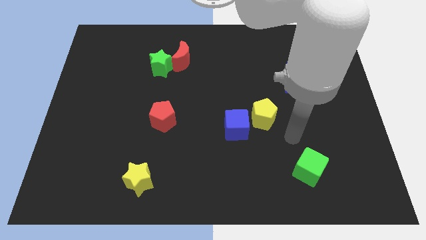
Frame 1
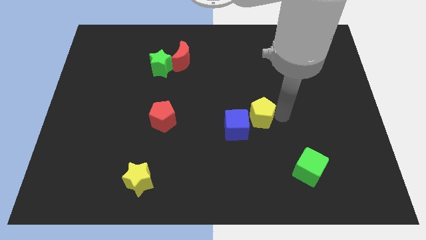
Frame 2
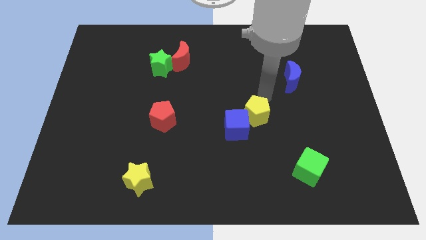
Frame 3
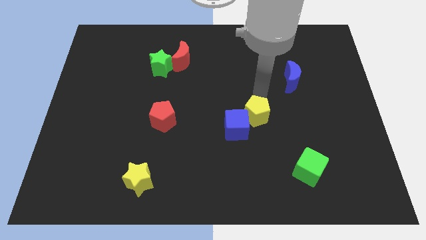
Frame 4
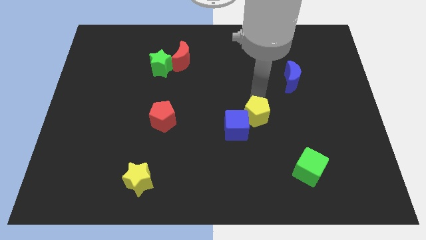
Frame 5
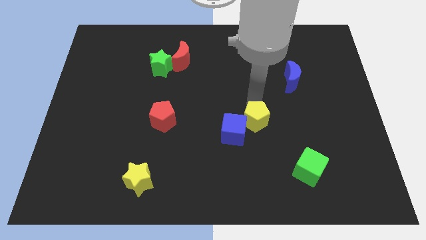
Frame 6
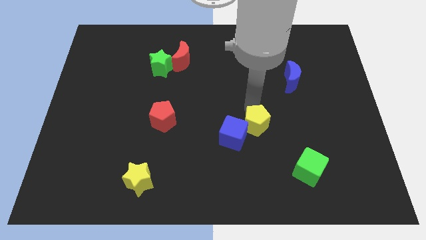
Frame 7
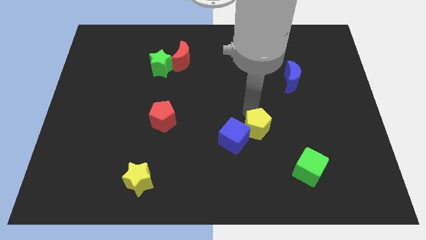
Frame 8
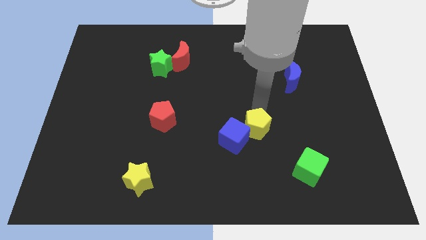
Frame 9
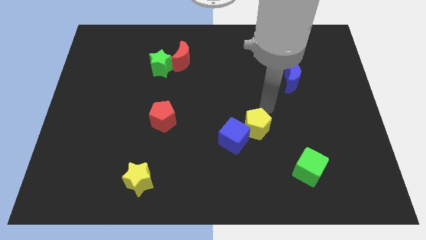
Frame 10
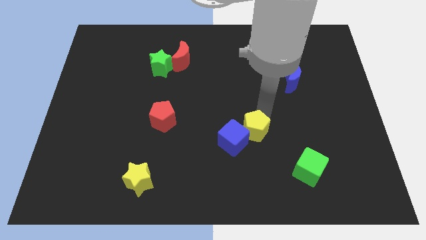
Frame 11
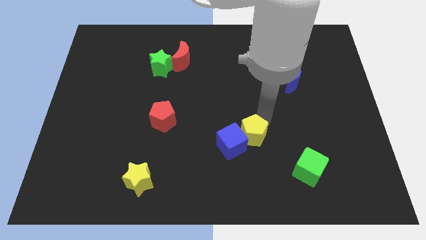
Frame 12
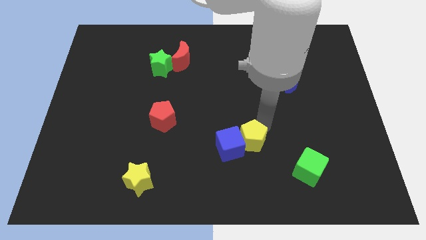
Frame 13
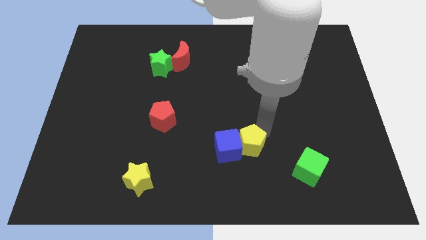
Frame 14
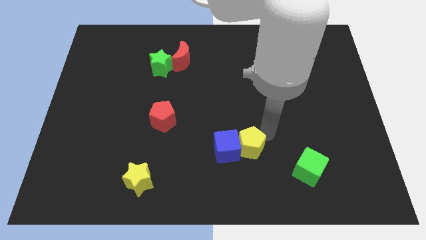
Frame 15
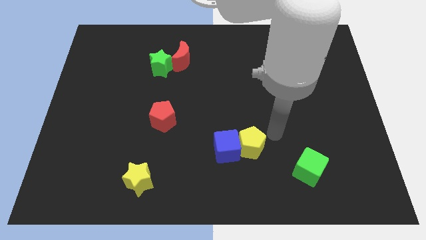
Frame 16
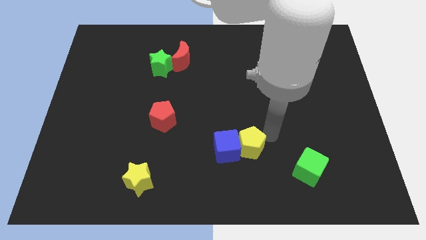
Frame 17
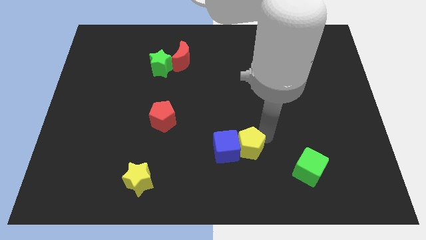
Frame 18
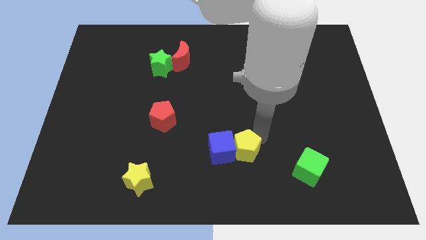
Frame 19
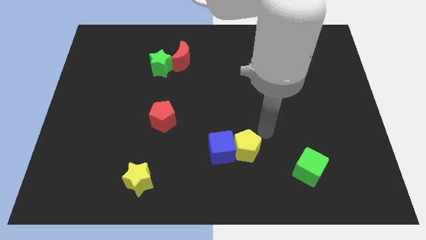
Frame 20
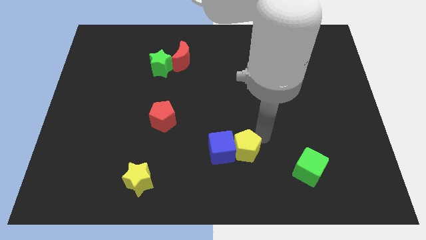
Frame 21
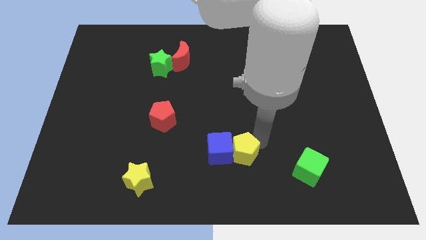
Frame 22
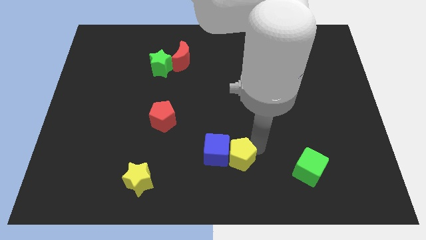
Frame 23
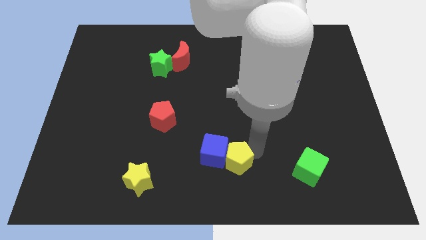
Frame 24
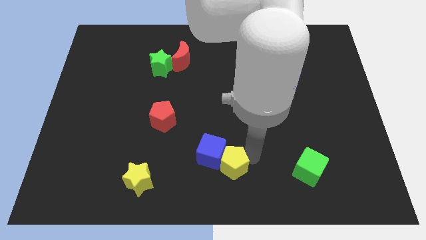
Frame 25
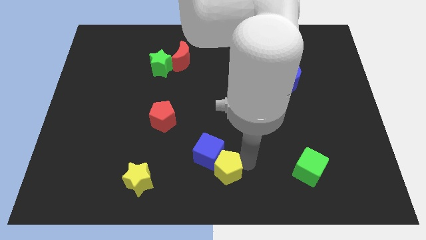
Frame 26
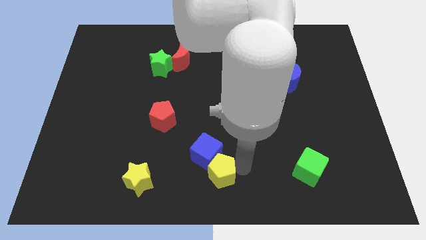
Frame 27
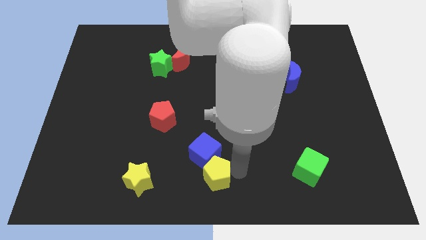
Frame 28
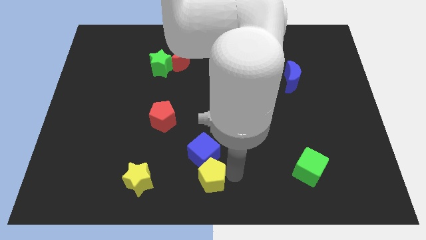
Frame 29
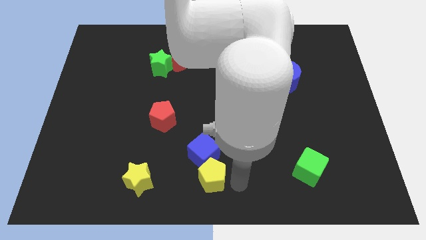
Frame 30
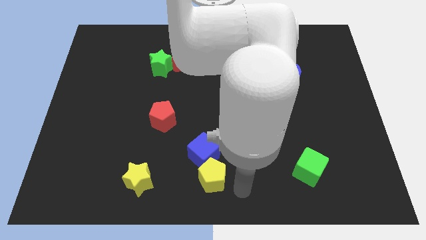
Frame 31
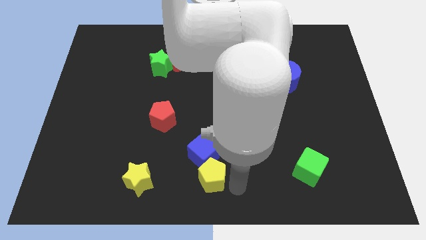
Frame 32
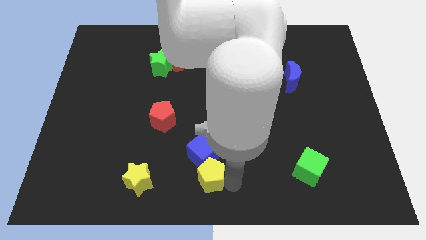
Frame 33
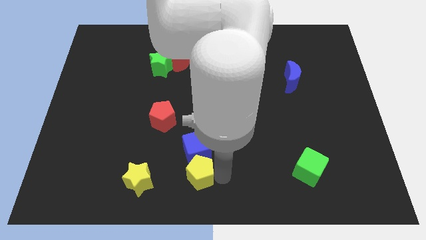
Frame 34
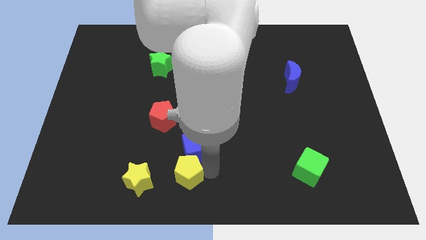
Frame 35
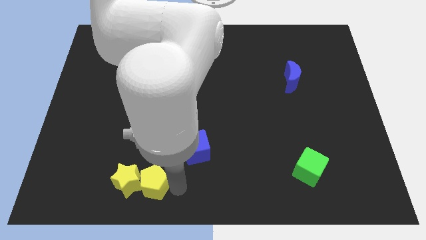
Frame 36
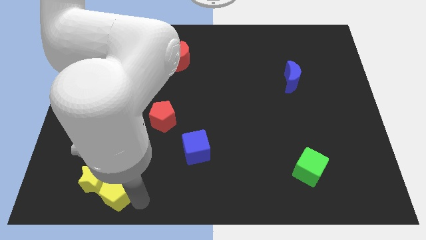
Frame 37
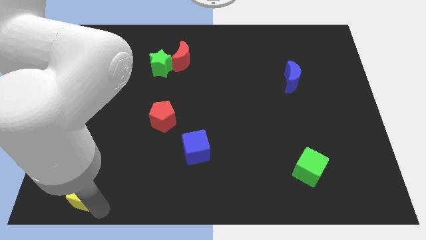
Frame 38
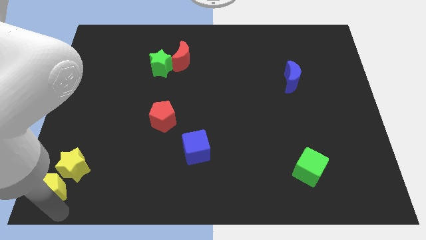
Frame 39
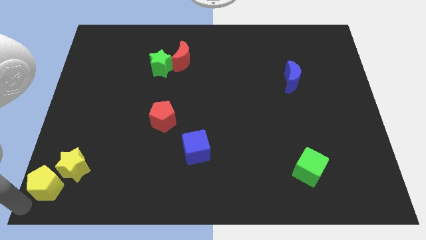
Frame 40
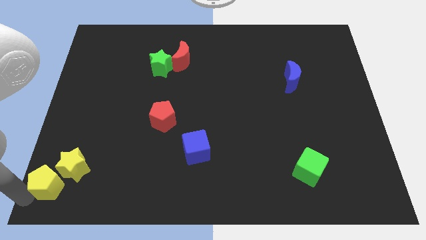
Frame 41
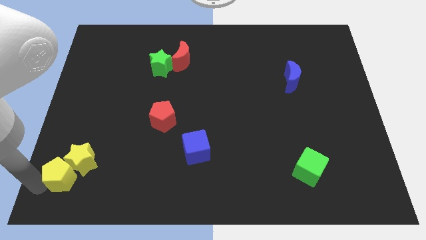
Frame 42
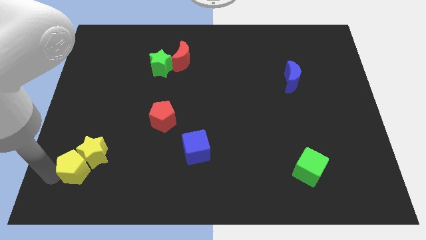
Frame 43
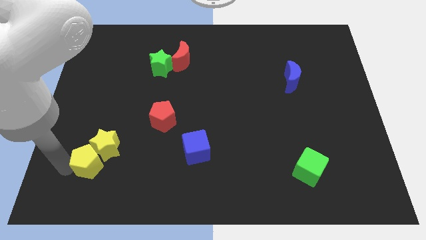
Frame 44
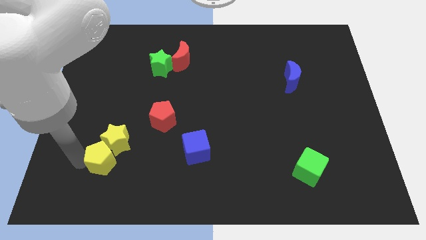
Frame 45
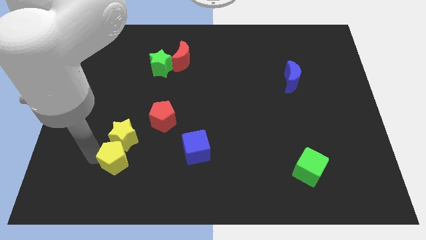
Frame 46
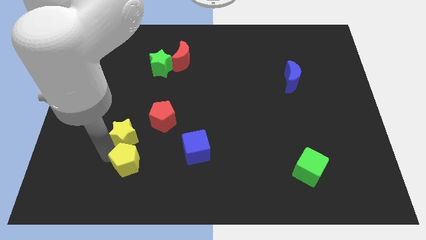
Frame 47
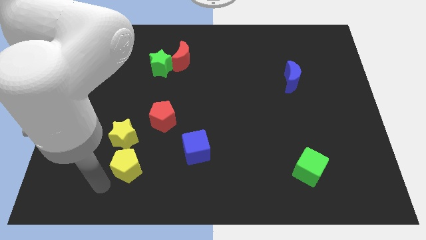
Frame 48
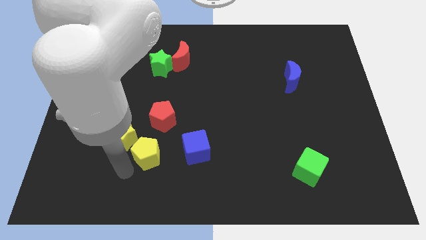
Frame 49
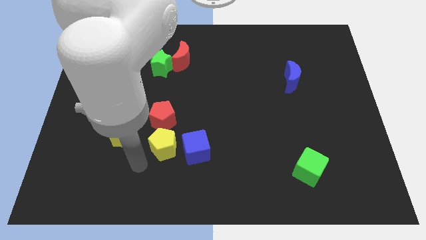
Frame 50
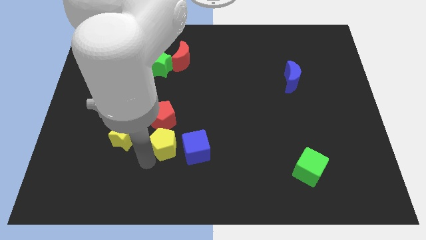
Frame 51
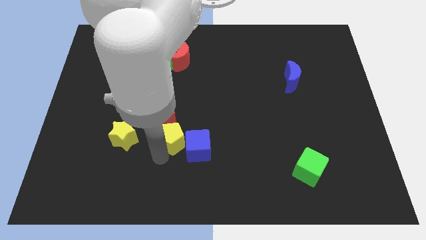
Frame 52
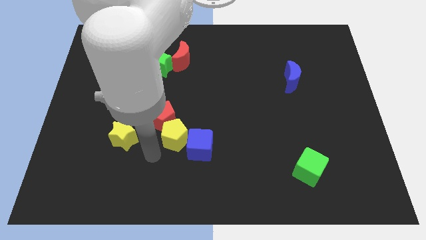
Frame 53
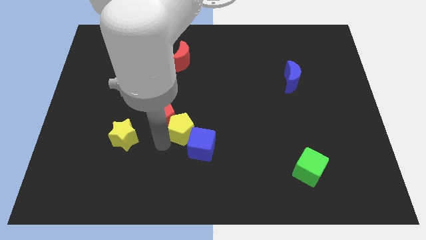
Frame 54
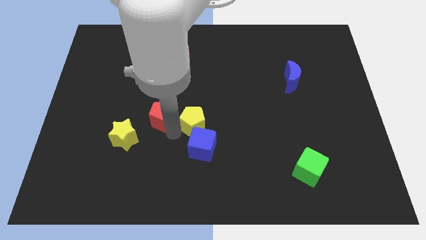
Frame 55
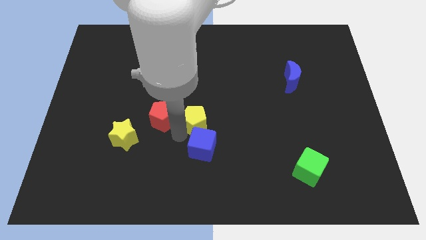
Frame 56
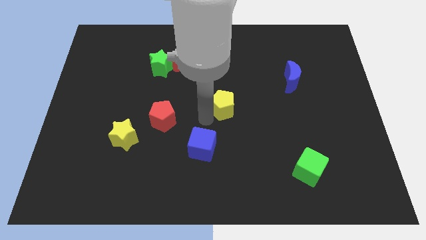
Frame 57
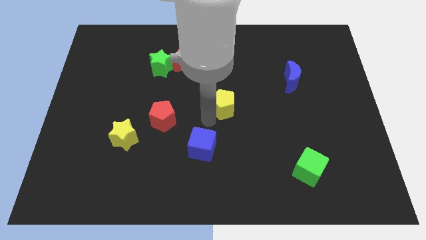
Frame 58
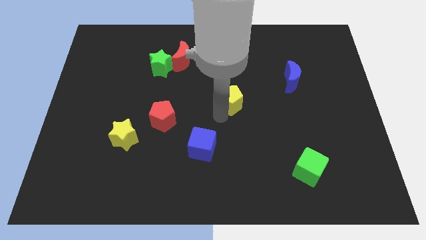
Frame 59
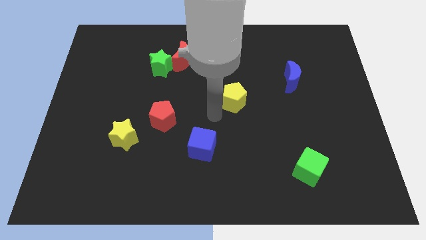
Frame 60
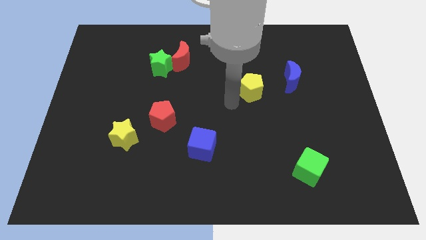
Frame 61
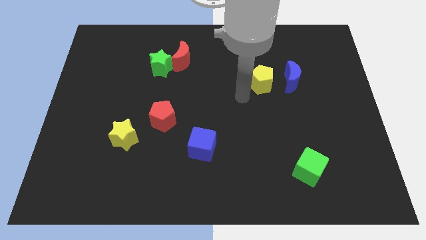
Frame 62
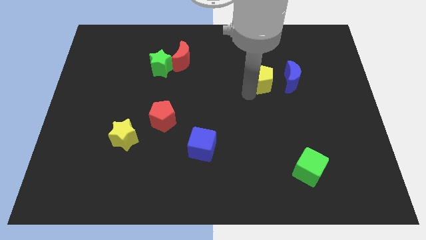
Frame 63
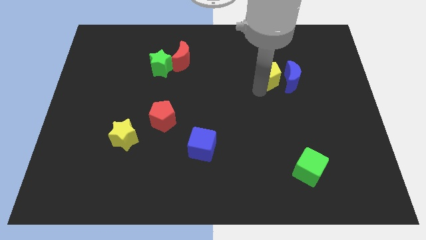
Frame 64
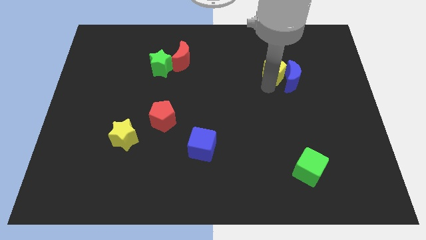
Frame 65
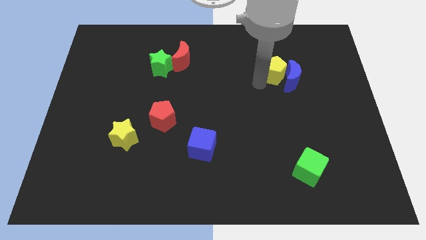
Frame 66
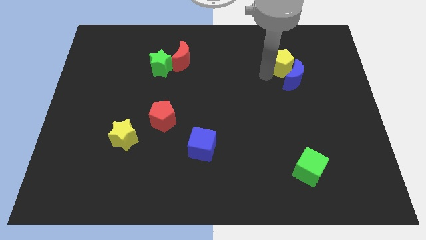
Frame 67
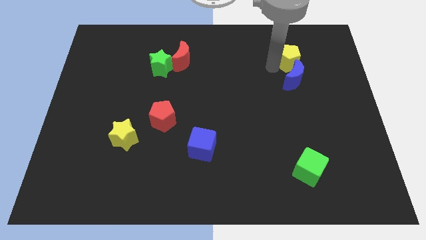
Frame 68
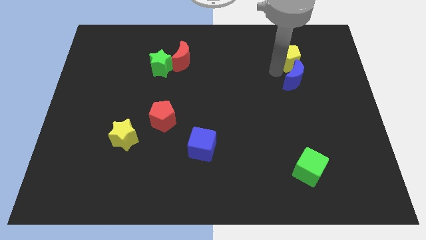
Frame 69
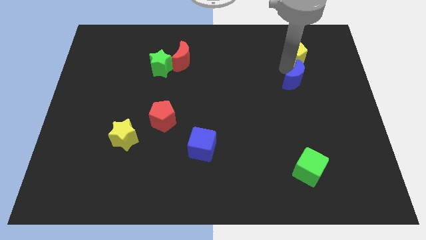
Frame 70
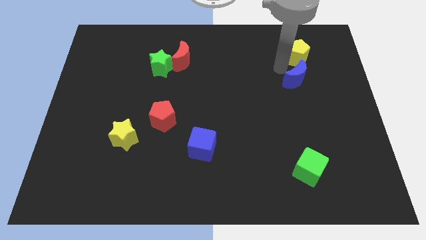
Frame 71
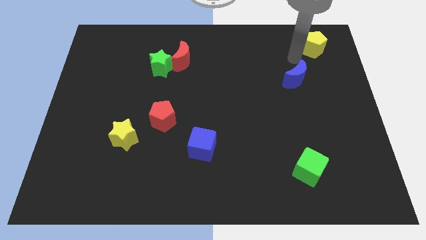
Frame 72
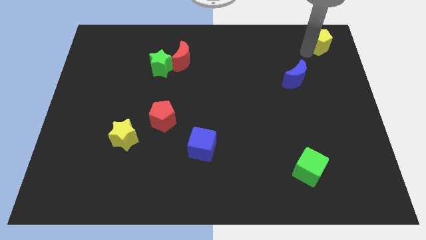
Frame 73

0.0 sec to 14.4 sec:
slide the yellow pentagon to the top right
